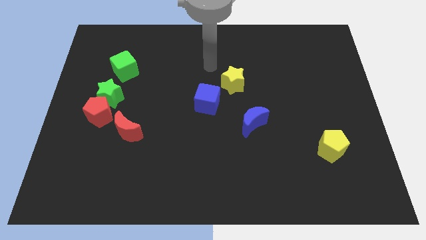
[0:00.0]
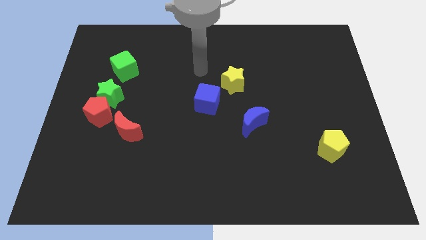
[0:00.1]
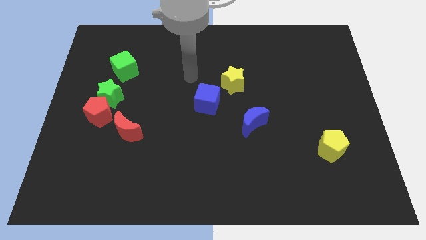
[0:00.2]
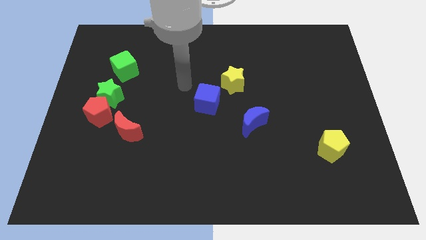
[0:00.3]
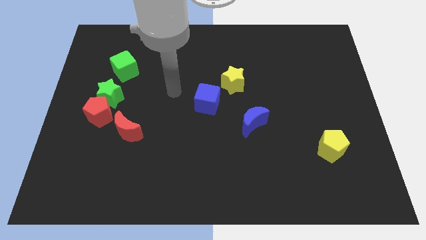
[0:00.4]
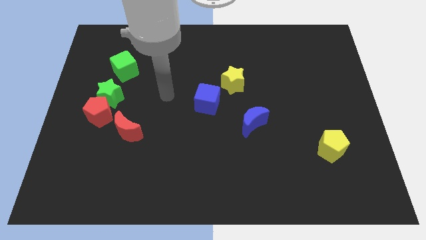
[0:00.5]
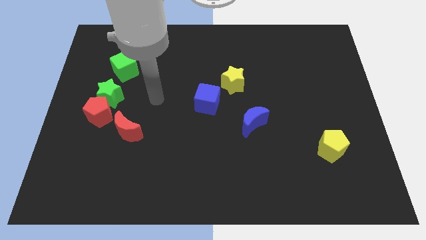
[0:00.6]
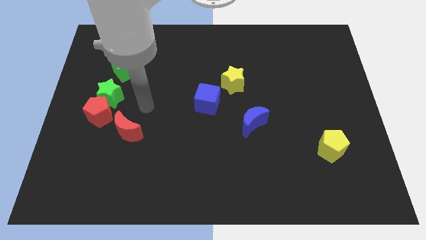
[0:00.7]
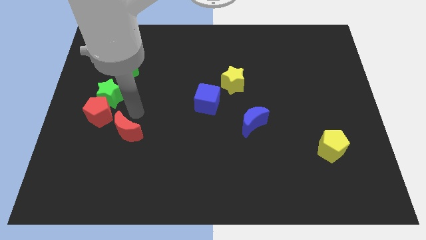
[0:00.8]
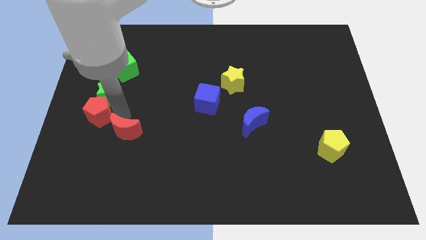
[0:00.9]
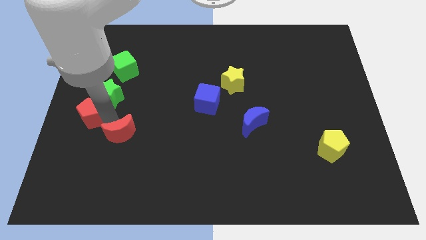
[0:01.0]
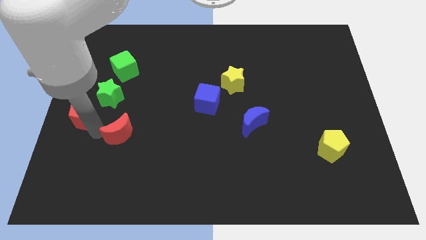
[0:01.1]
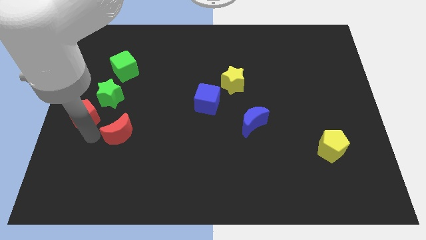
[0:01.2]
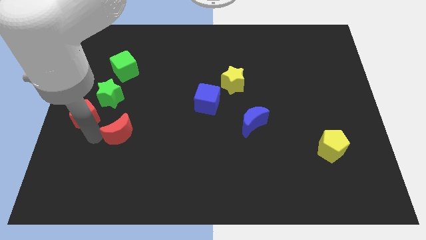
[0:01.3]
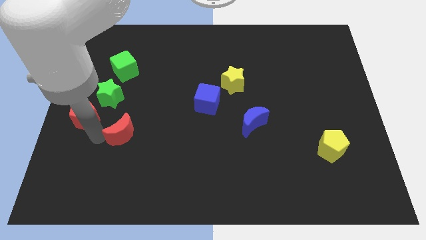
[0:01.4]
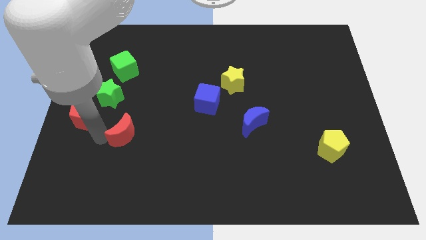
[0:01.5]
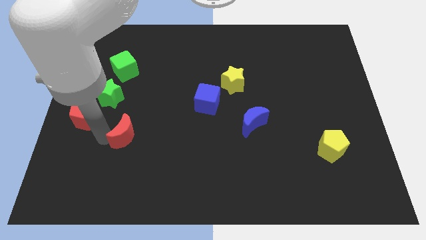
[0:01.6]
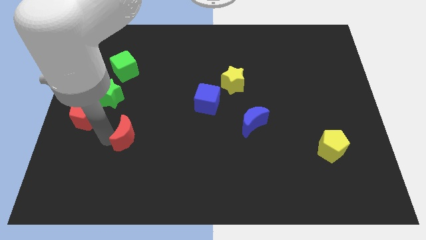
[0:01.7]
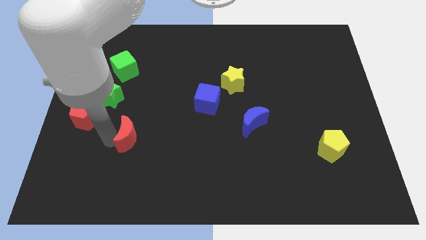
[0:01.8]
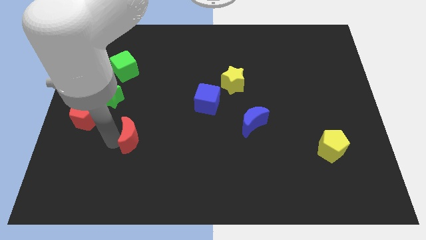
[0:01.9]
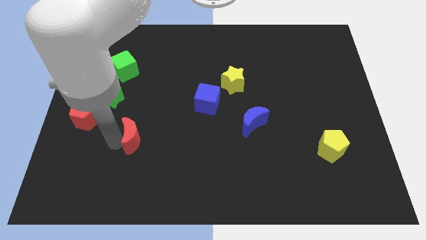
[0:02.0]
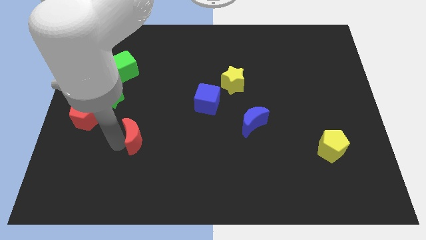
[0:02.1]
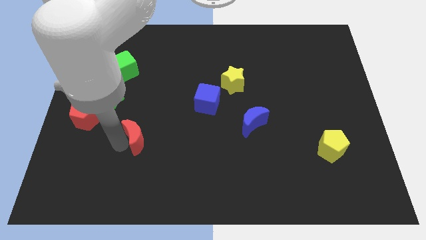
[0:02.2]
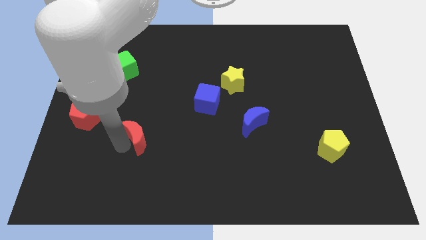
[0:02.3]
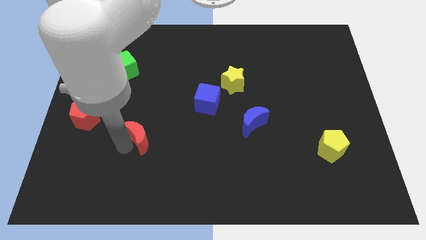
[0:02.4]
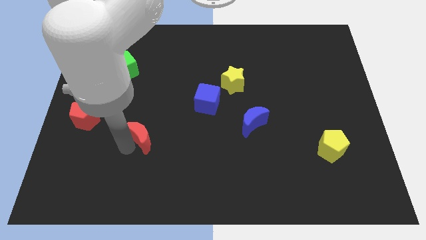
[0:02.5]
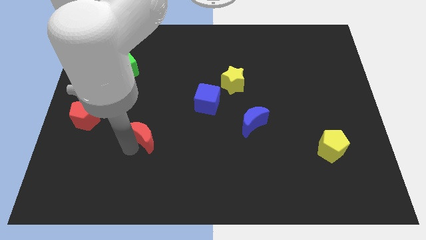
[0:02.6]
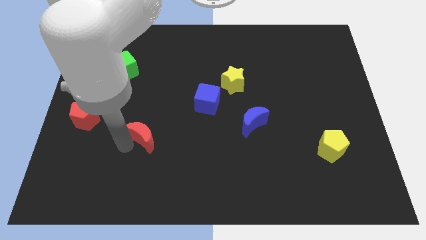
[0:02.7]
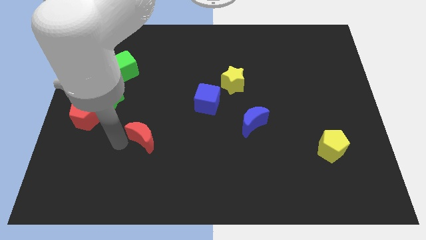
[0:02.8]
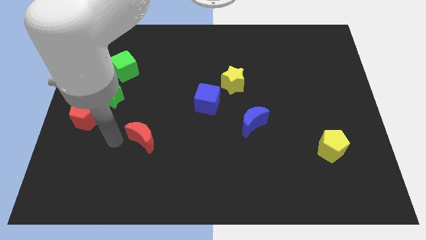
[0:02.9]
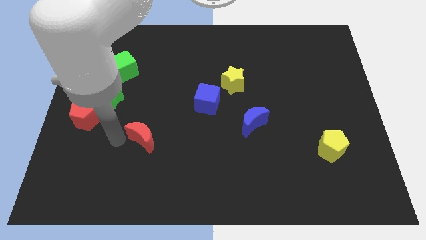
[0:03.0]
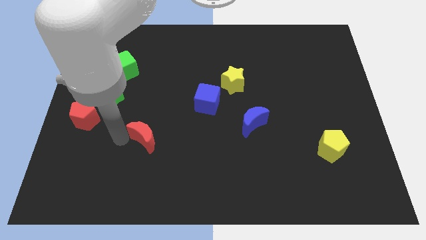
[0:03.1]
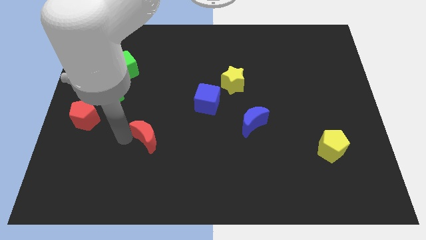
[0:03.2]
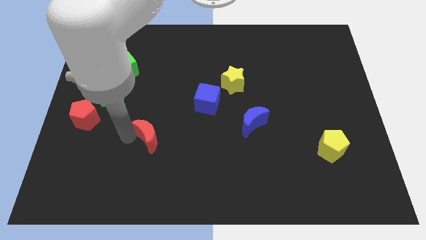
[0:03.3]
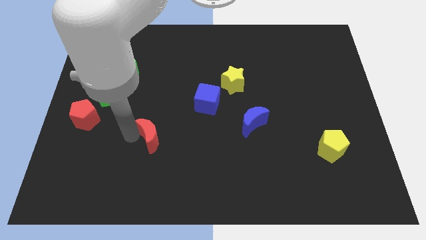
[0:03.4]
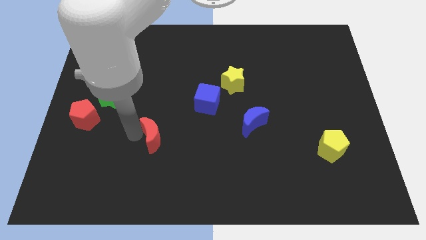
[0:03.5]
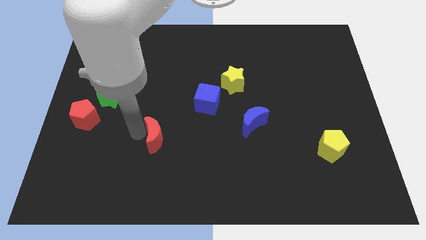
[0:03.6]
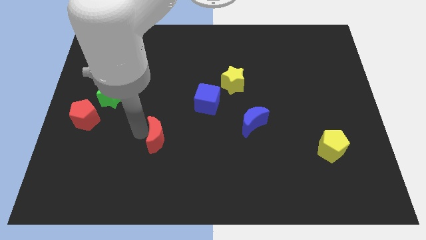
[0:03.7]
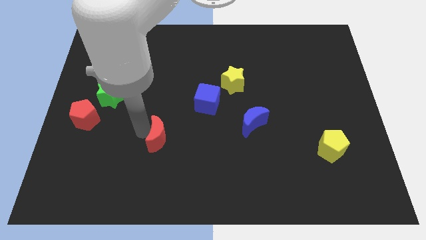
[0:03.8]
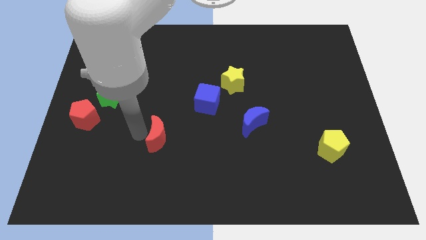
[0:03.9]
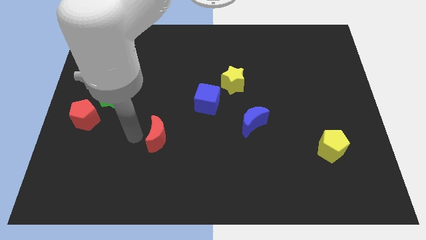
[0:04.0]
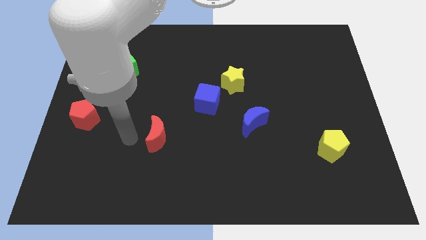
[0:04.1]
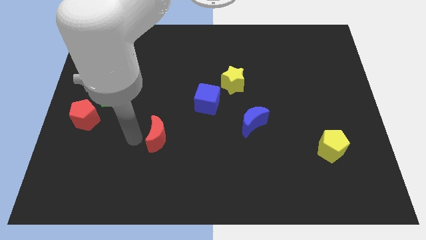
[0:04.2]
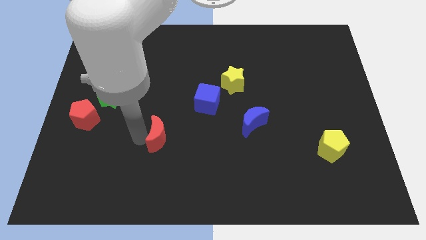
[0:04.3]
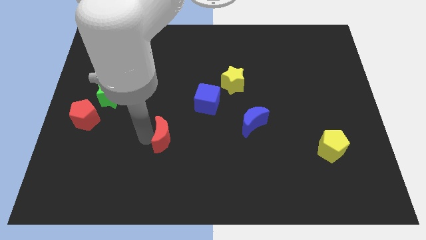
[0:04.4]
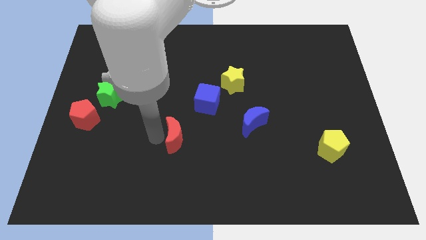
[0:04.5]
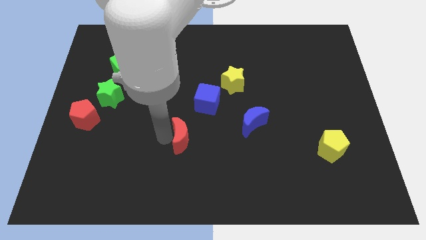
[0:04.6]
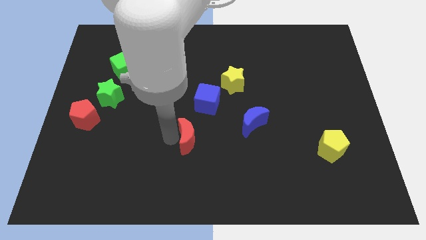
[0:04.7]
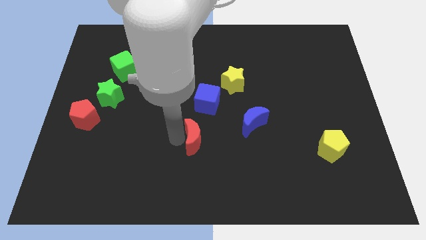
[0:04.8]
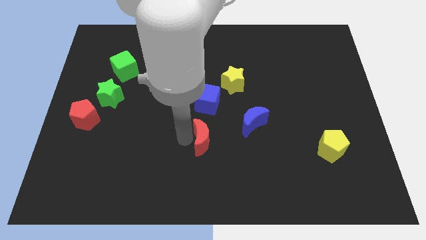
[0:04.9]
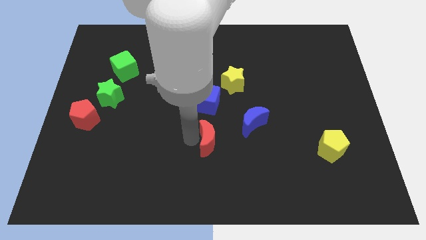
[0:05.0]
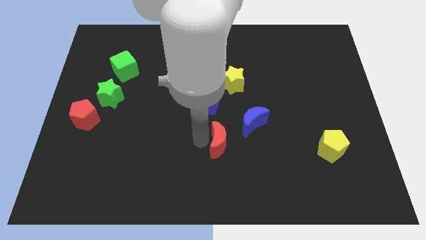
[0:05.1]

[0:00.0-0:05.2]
push the red moon to the right

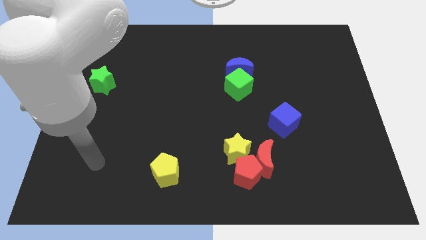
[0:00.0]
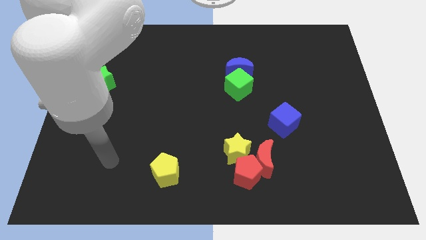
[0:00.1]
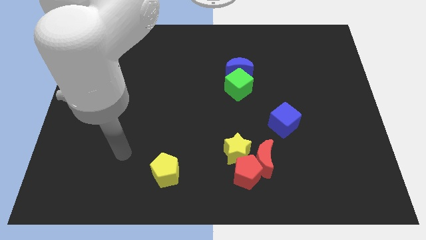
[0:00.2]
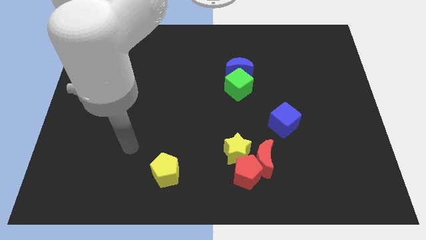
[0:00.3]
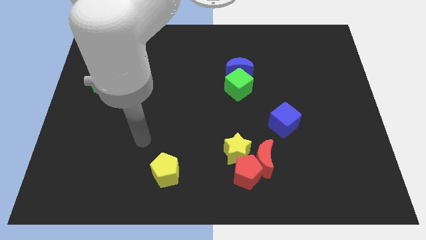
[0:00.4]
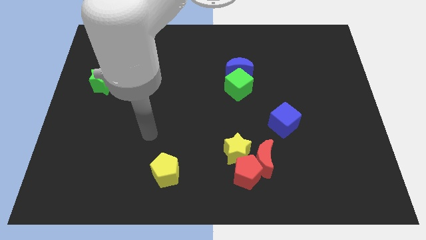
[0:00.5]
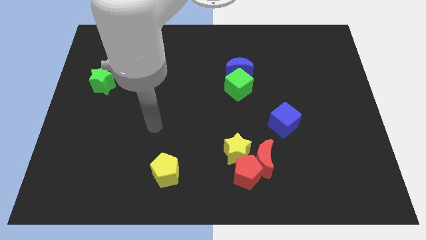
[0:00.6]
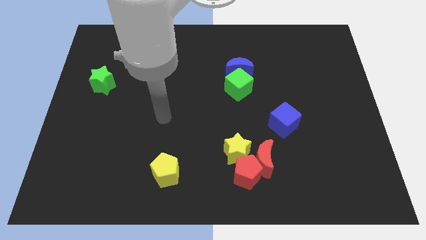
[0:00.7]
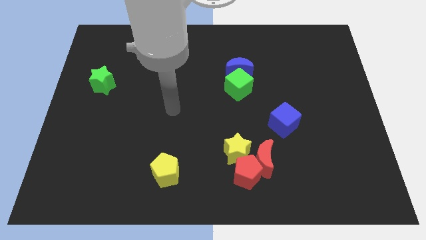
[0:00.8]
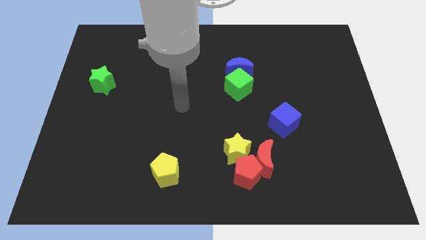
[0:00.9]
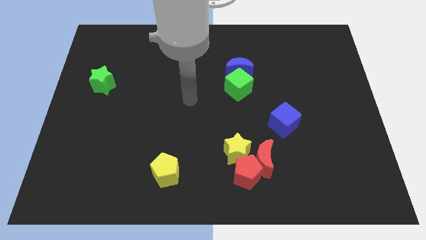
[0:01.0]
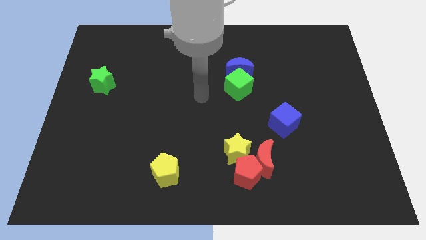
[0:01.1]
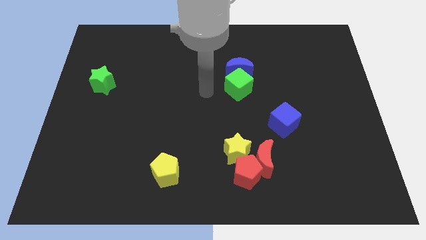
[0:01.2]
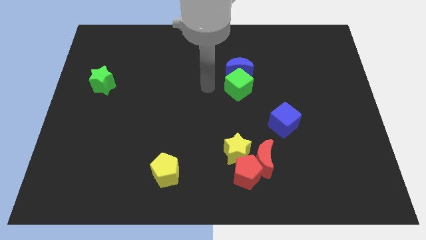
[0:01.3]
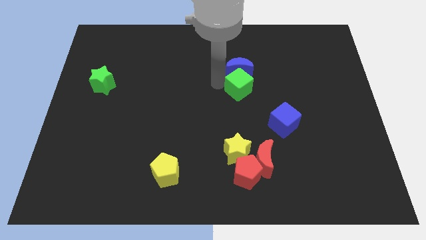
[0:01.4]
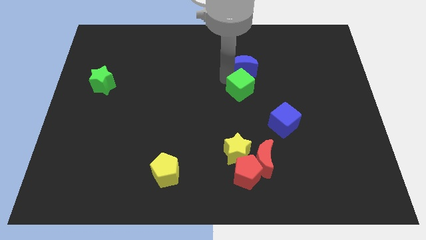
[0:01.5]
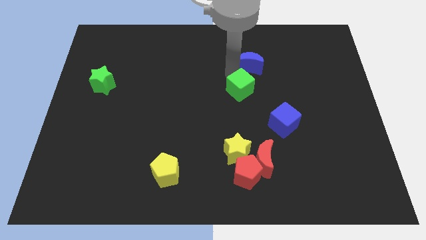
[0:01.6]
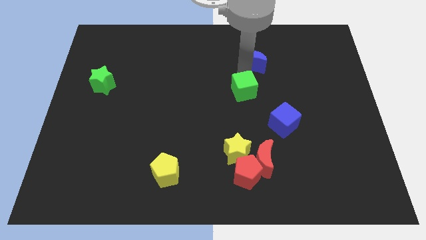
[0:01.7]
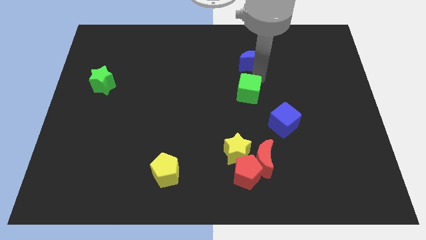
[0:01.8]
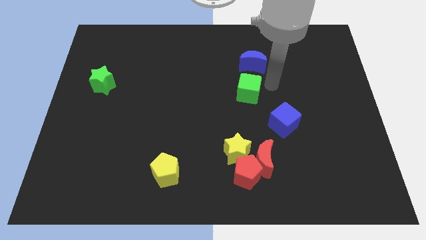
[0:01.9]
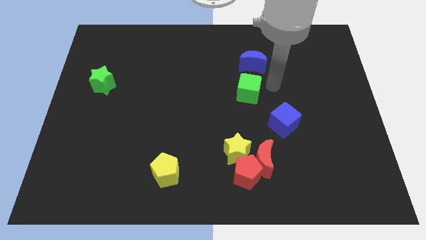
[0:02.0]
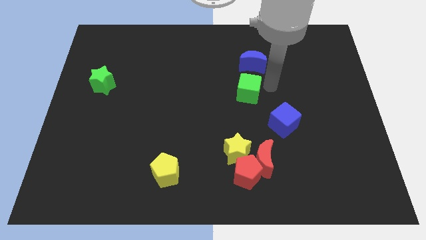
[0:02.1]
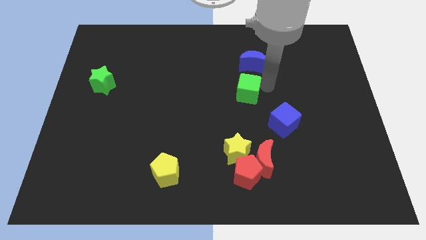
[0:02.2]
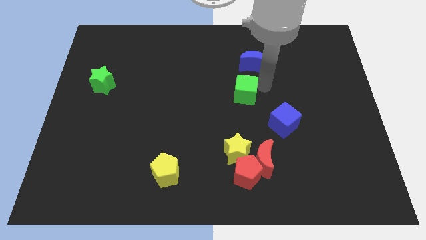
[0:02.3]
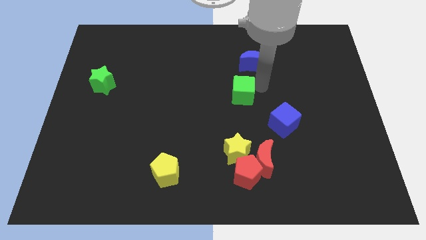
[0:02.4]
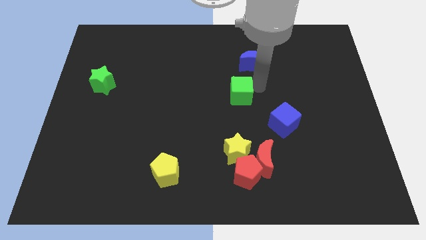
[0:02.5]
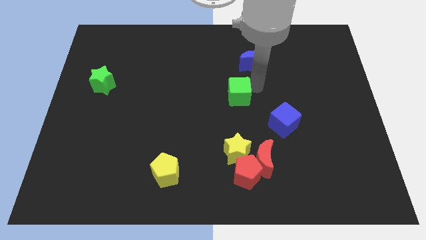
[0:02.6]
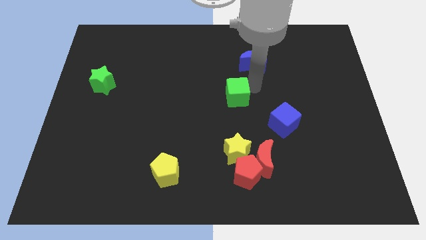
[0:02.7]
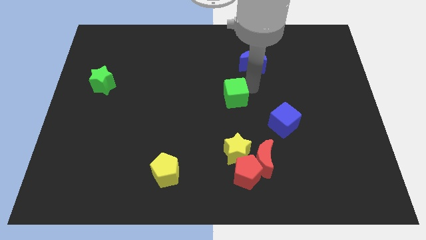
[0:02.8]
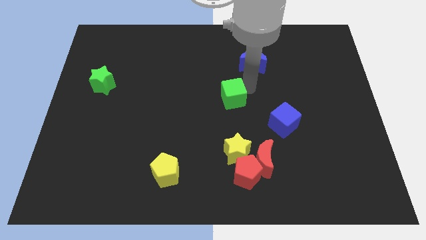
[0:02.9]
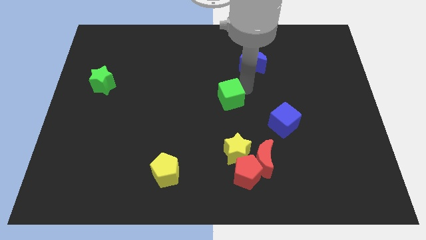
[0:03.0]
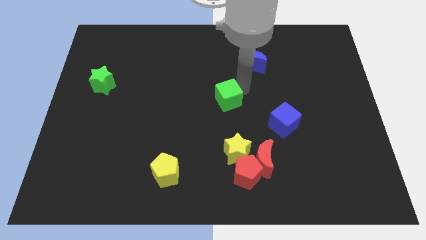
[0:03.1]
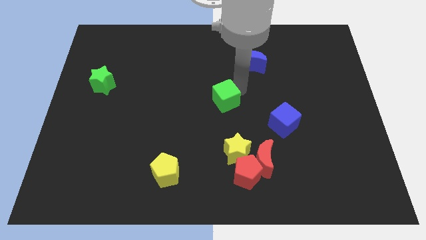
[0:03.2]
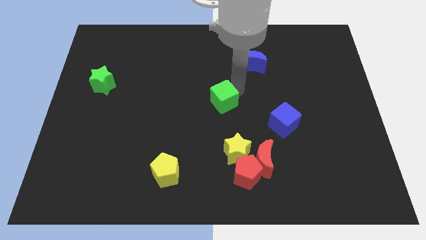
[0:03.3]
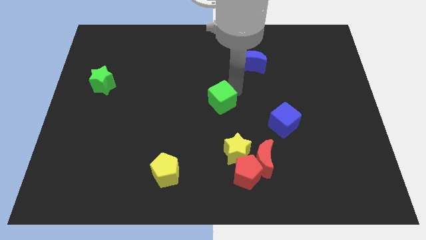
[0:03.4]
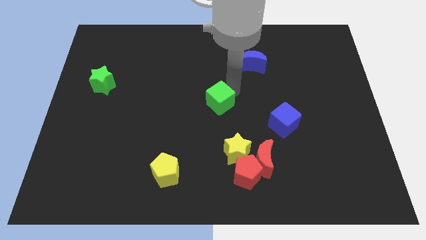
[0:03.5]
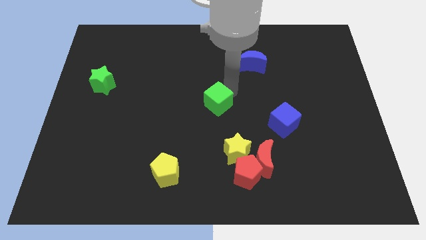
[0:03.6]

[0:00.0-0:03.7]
slide the green cube down and left diagonally slightly
